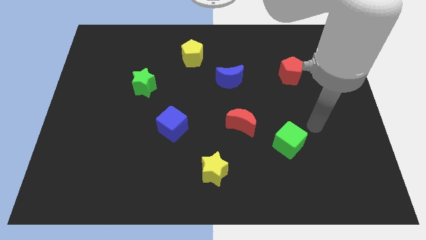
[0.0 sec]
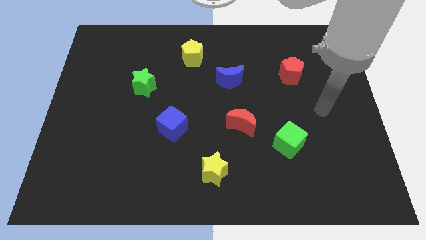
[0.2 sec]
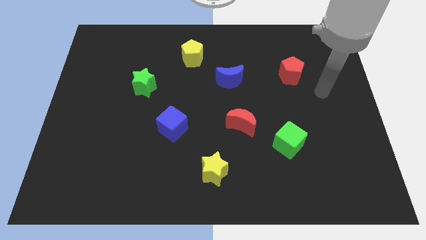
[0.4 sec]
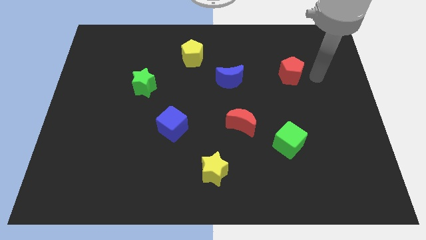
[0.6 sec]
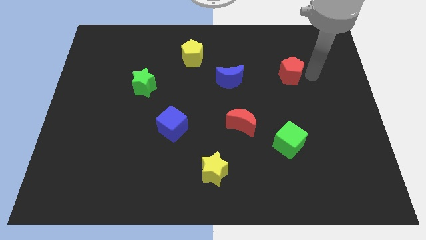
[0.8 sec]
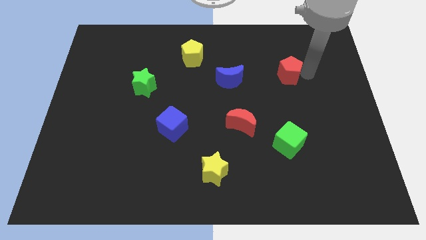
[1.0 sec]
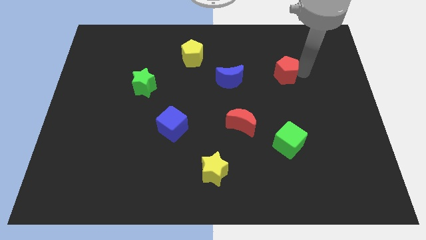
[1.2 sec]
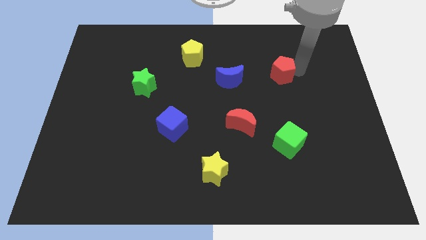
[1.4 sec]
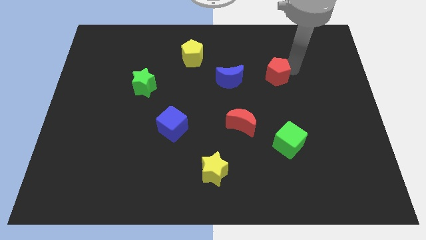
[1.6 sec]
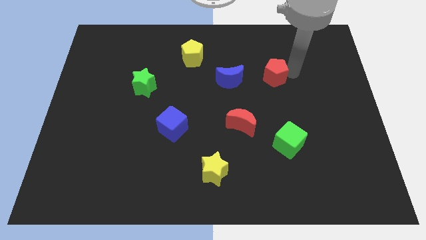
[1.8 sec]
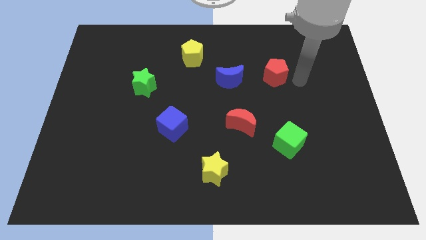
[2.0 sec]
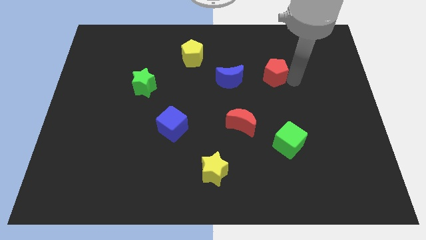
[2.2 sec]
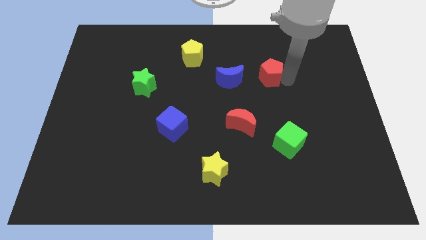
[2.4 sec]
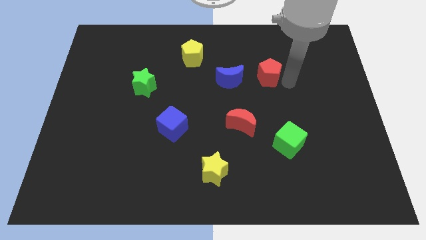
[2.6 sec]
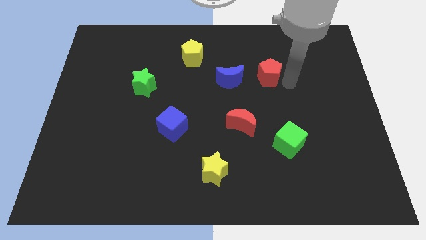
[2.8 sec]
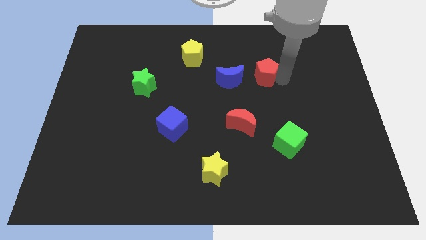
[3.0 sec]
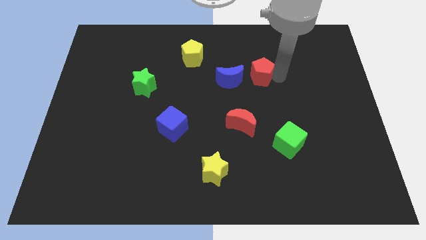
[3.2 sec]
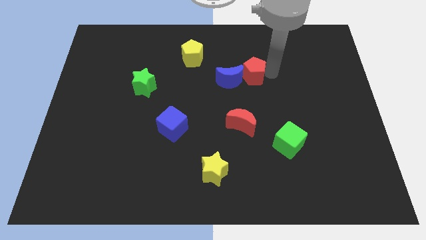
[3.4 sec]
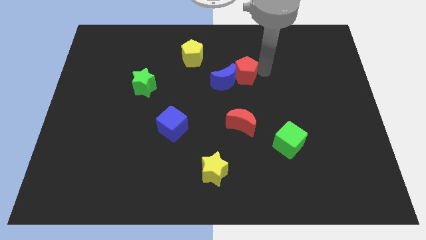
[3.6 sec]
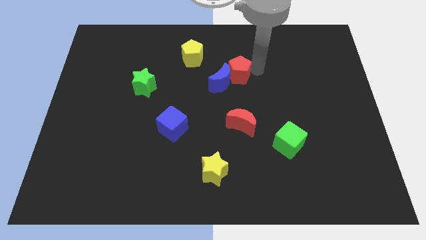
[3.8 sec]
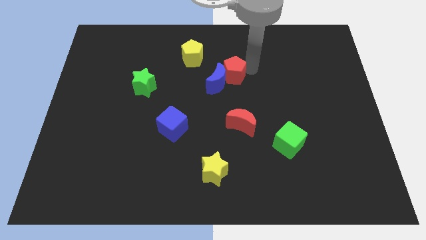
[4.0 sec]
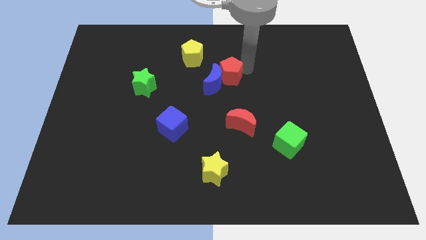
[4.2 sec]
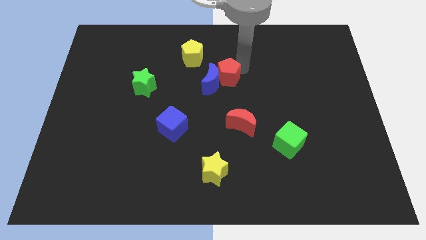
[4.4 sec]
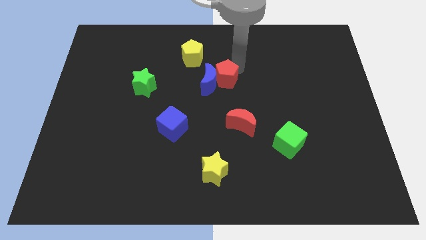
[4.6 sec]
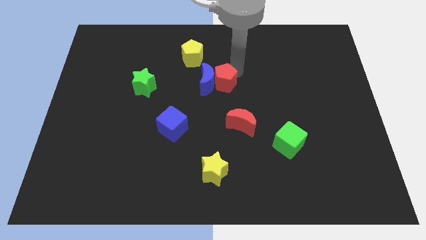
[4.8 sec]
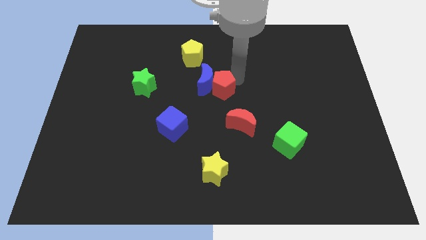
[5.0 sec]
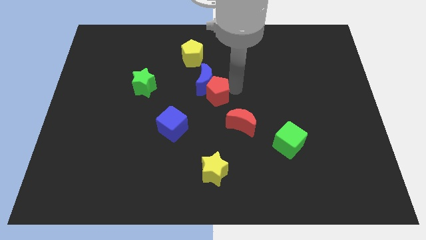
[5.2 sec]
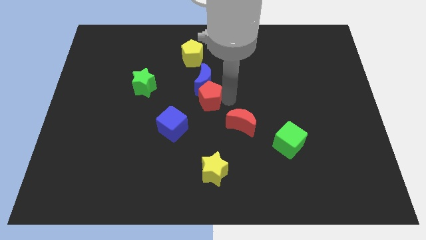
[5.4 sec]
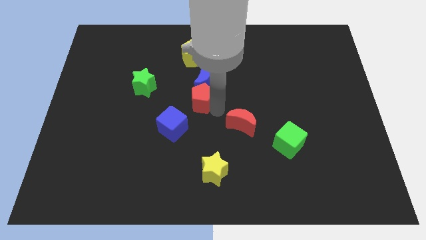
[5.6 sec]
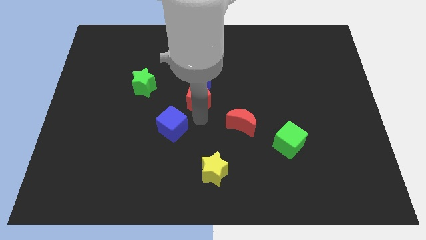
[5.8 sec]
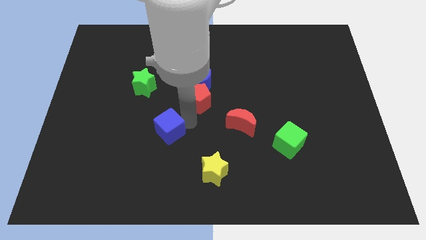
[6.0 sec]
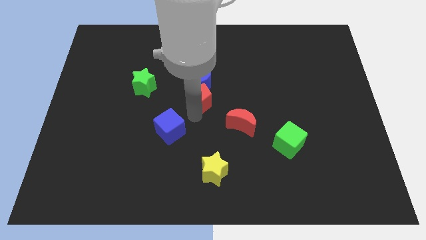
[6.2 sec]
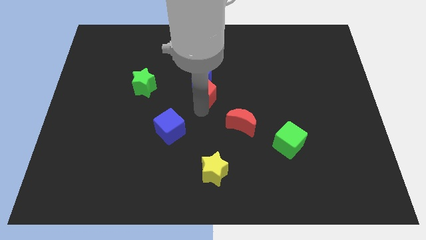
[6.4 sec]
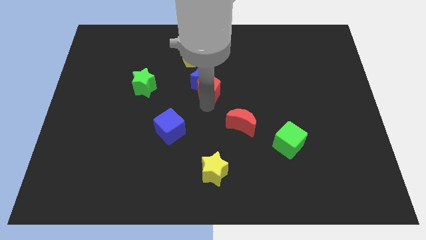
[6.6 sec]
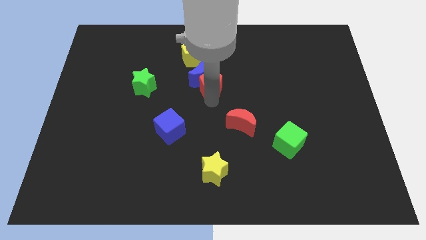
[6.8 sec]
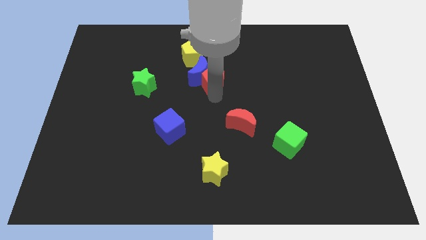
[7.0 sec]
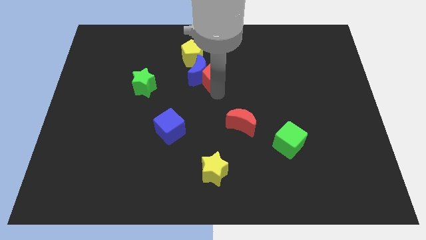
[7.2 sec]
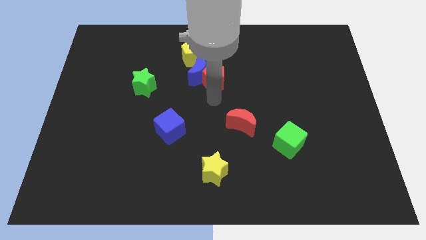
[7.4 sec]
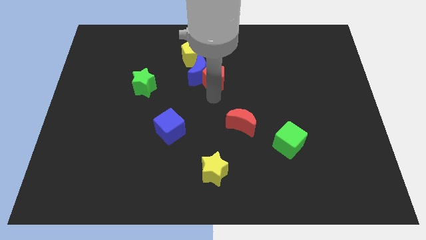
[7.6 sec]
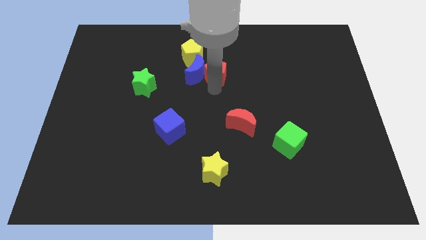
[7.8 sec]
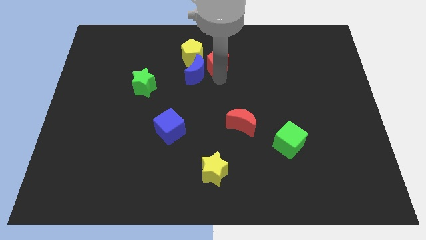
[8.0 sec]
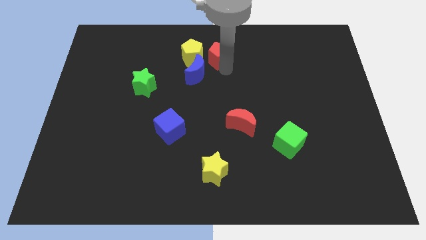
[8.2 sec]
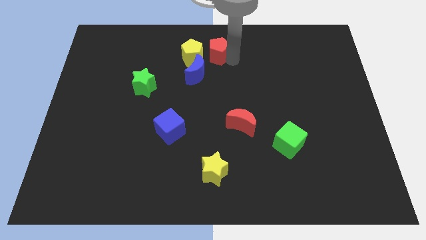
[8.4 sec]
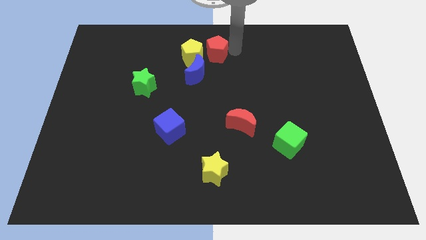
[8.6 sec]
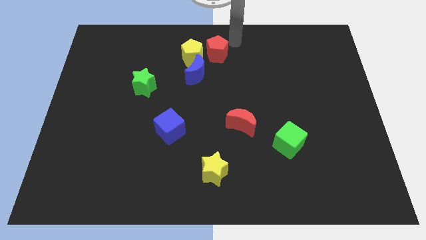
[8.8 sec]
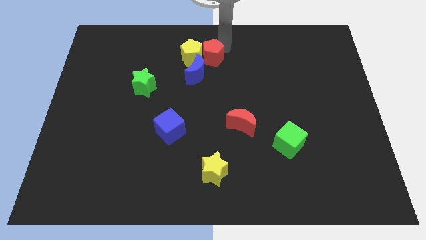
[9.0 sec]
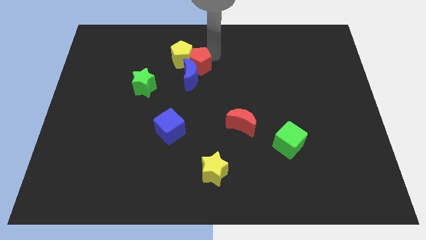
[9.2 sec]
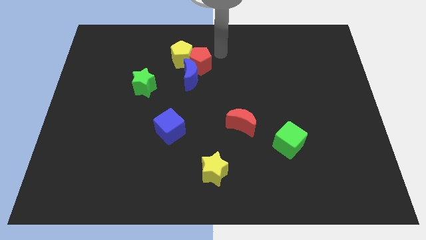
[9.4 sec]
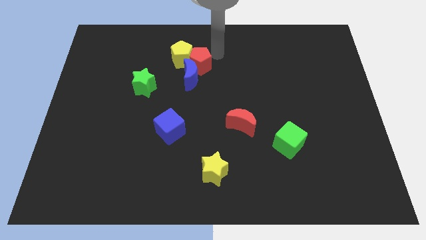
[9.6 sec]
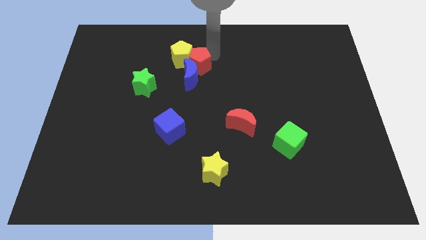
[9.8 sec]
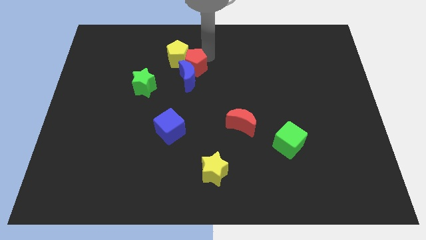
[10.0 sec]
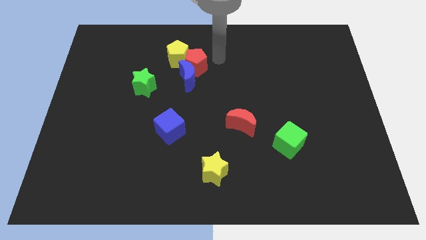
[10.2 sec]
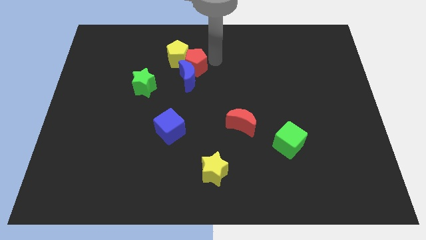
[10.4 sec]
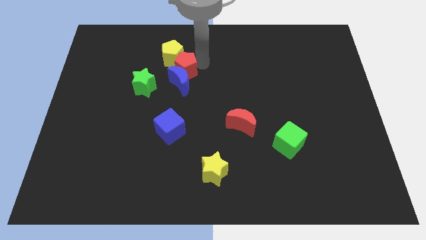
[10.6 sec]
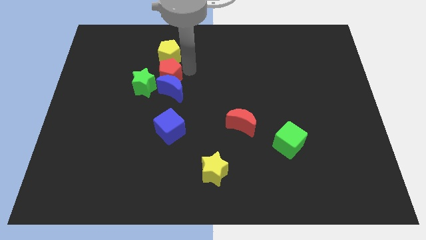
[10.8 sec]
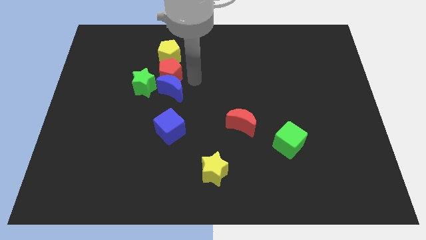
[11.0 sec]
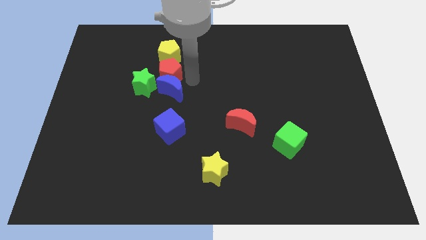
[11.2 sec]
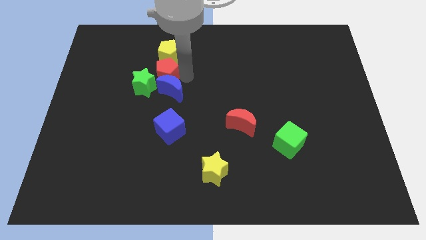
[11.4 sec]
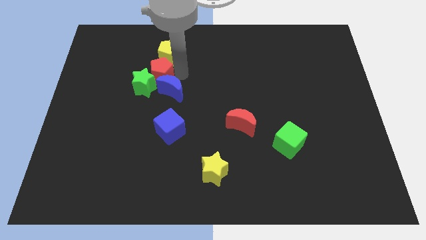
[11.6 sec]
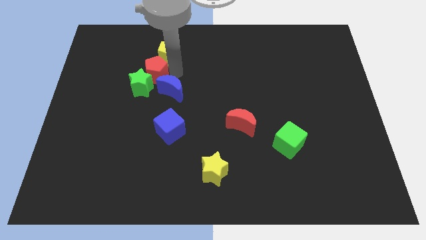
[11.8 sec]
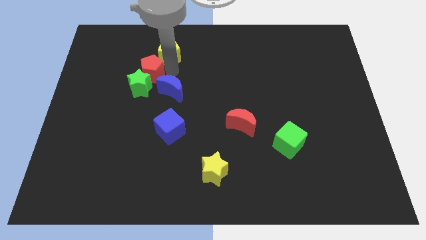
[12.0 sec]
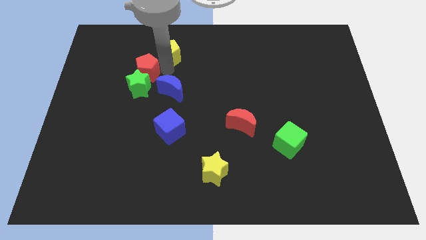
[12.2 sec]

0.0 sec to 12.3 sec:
push the red pentagon diagonally up and to the left of the green star

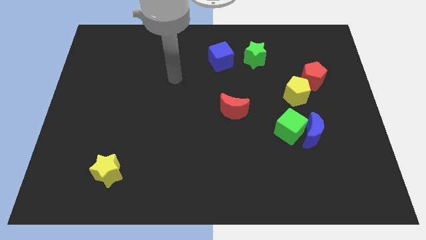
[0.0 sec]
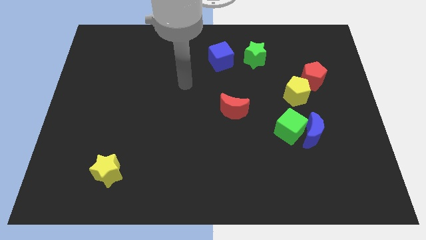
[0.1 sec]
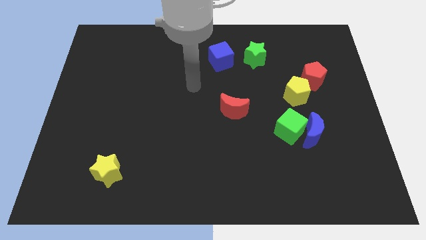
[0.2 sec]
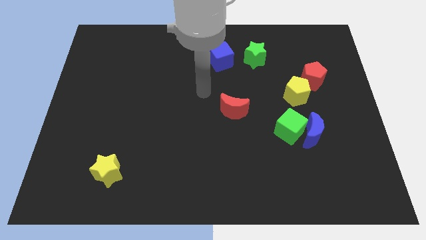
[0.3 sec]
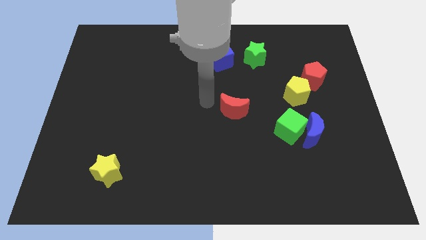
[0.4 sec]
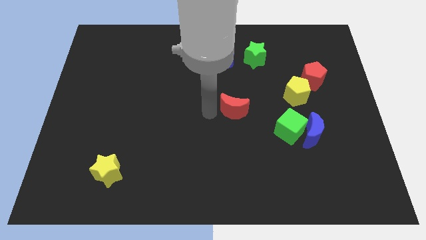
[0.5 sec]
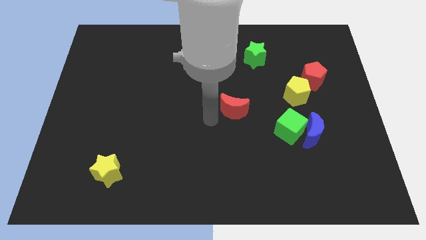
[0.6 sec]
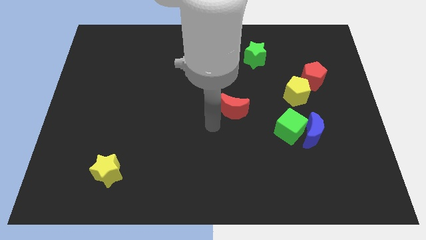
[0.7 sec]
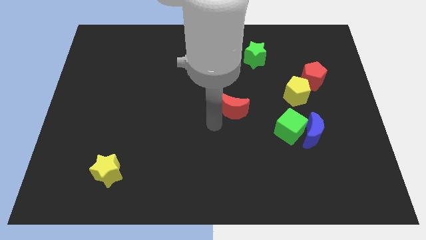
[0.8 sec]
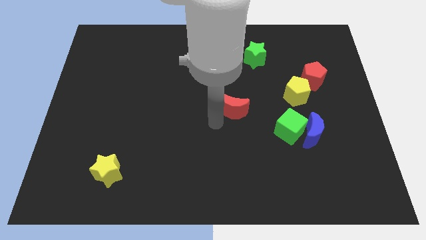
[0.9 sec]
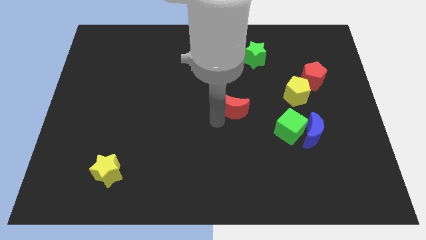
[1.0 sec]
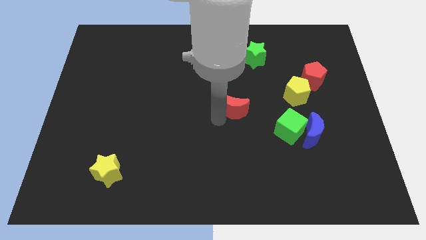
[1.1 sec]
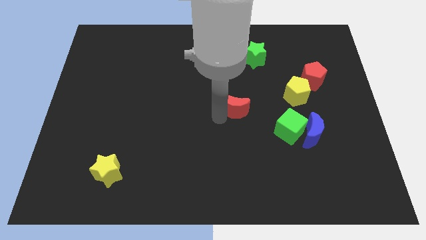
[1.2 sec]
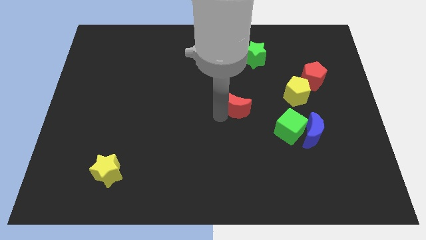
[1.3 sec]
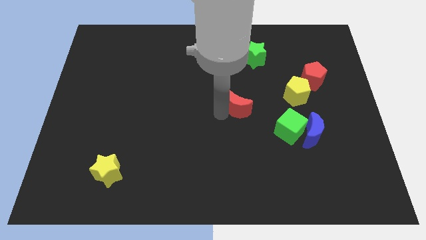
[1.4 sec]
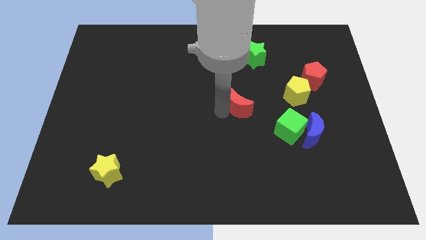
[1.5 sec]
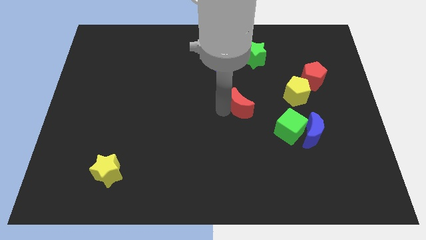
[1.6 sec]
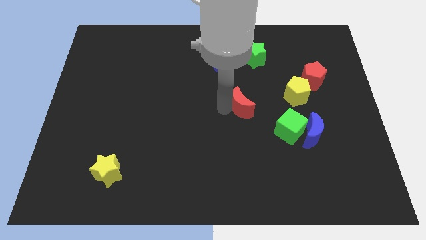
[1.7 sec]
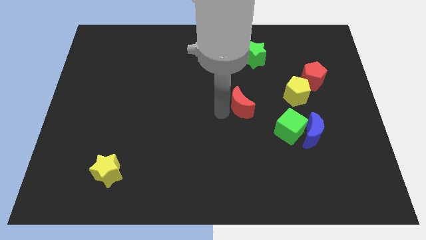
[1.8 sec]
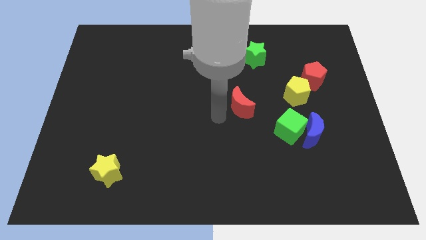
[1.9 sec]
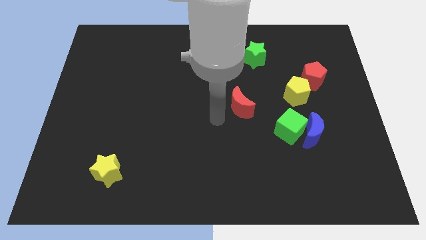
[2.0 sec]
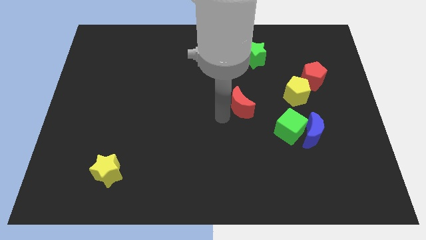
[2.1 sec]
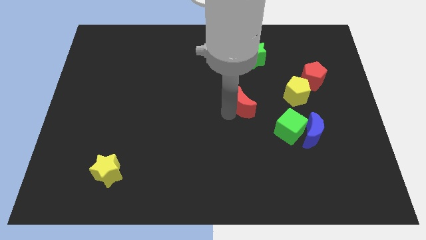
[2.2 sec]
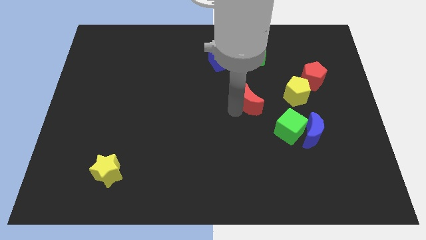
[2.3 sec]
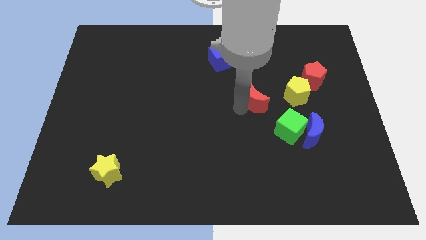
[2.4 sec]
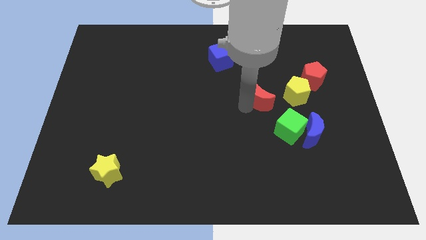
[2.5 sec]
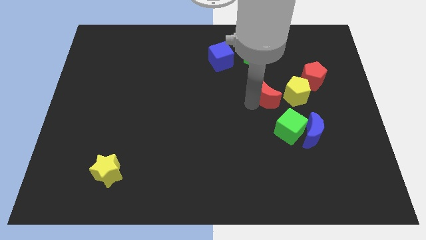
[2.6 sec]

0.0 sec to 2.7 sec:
slide the red moon above the green cube
